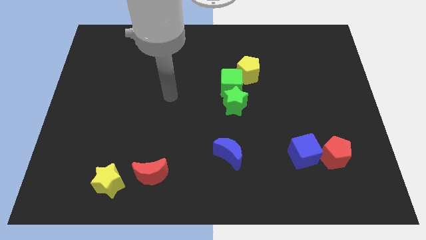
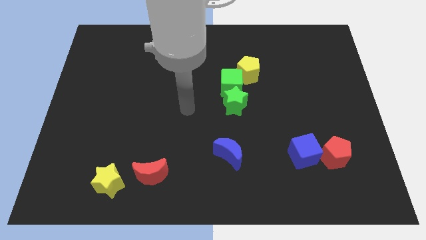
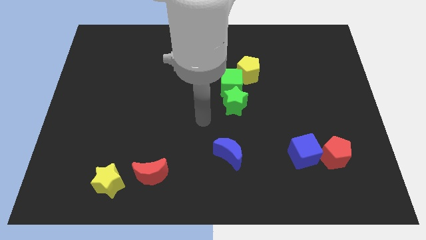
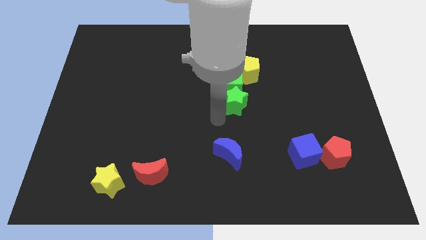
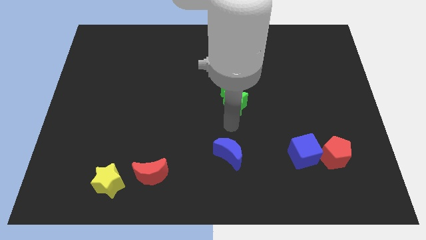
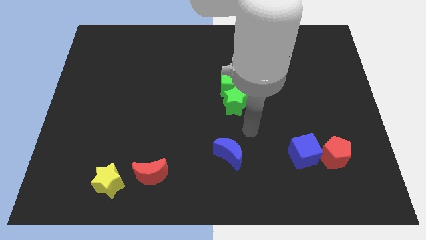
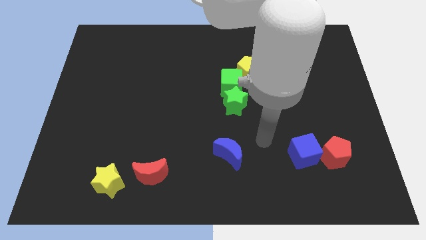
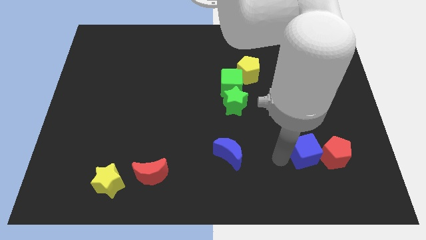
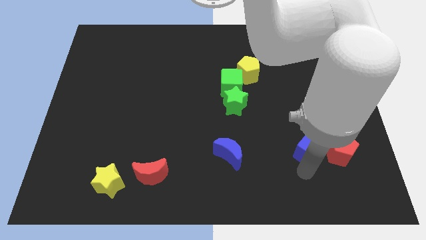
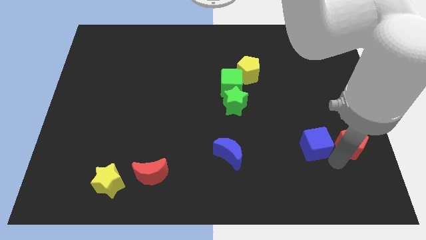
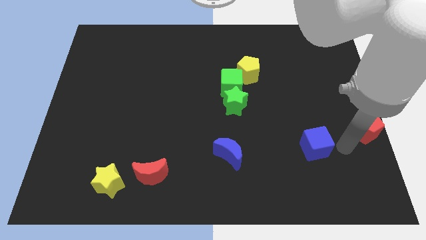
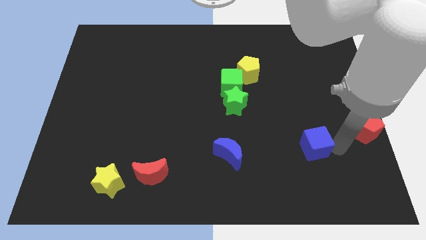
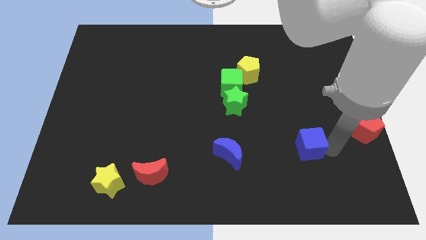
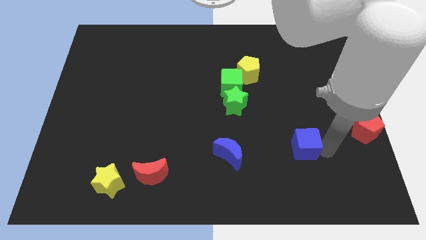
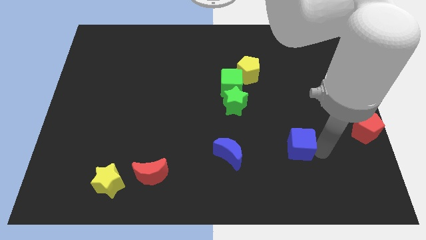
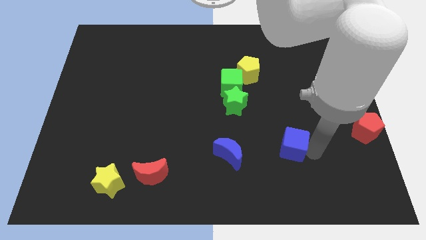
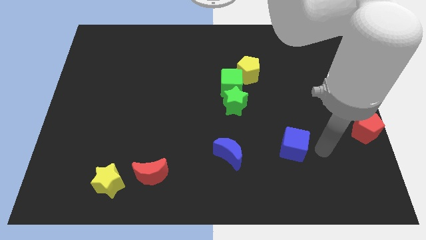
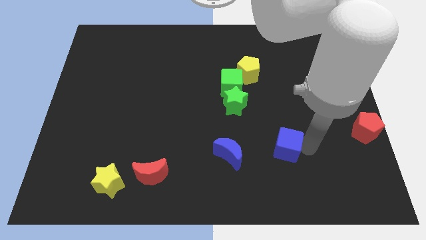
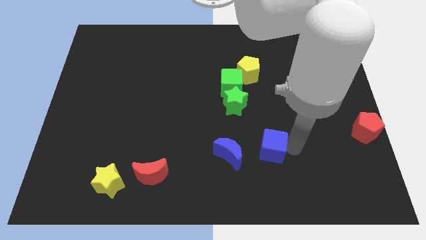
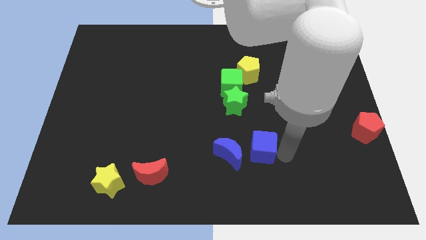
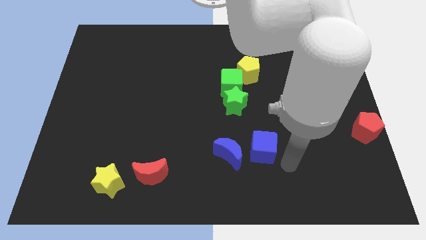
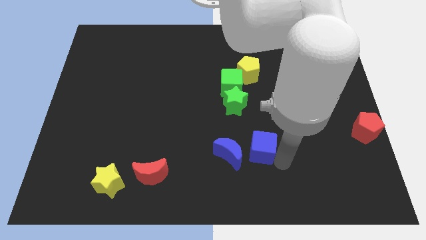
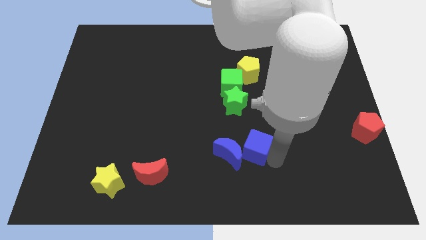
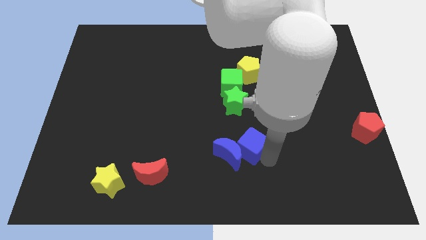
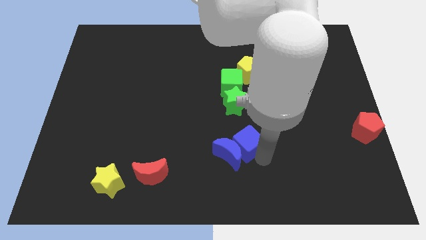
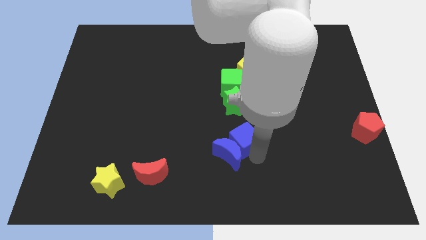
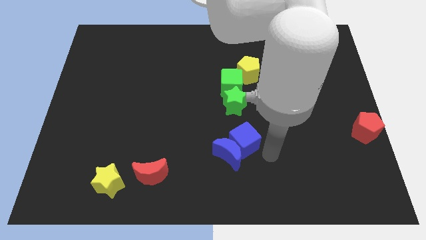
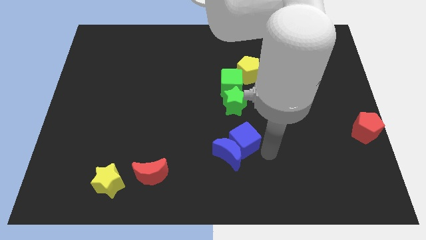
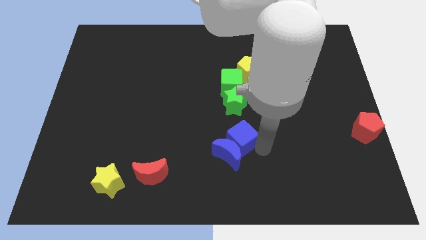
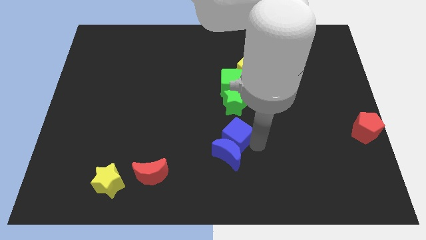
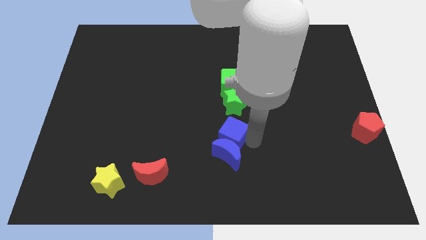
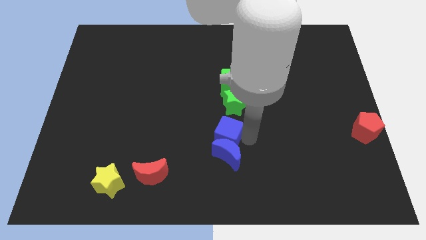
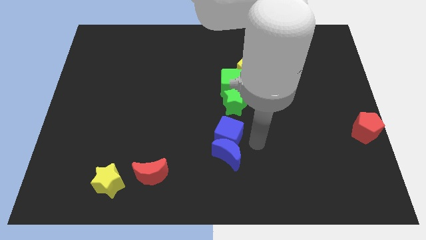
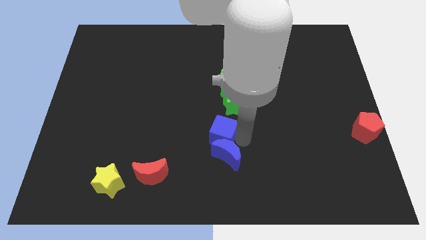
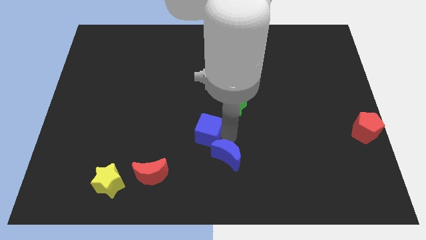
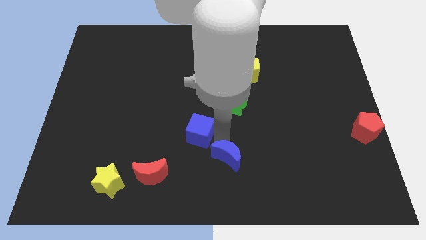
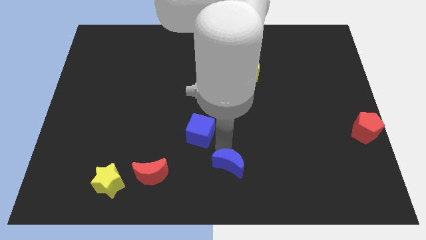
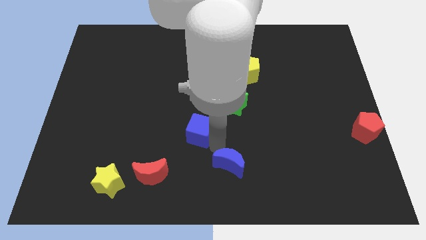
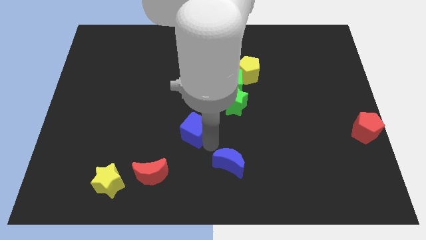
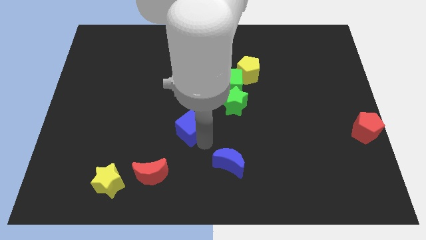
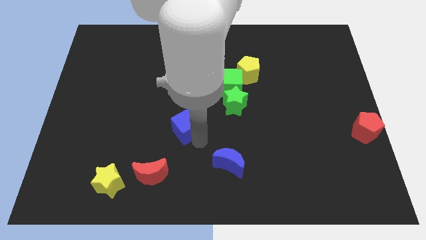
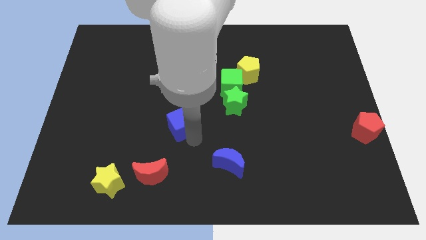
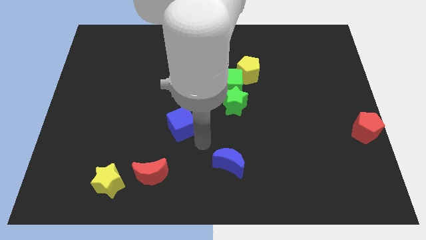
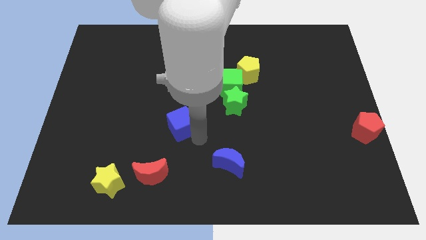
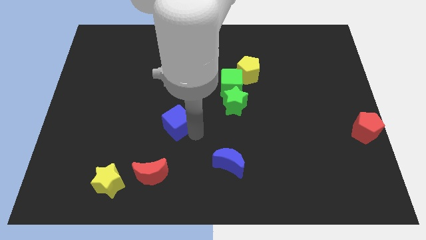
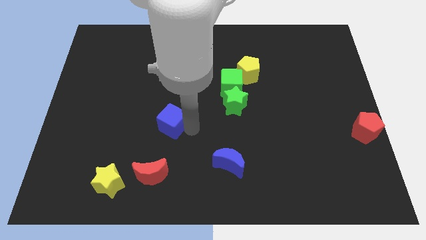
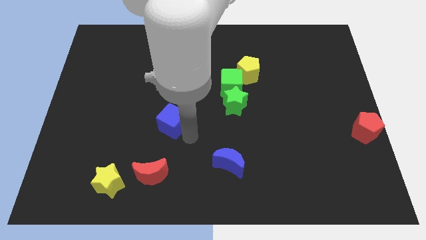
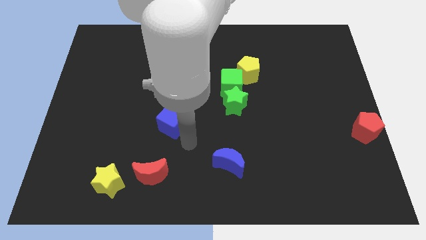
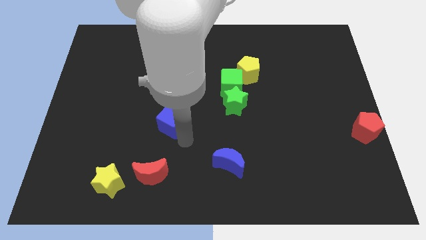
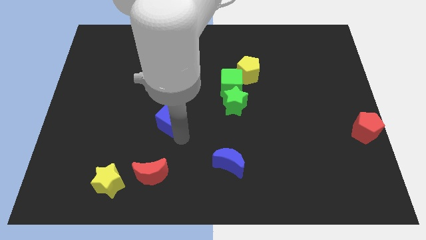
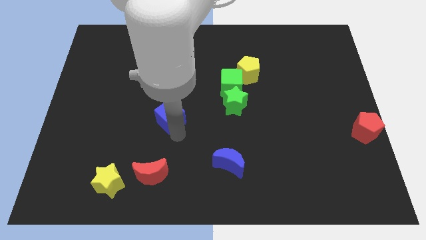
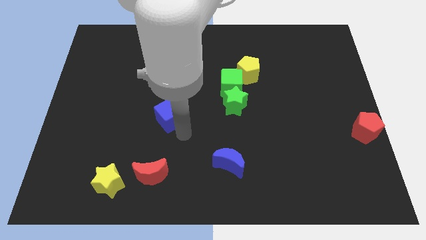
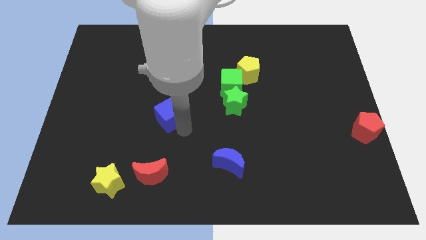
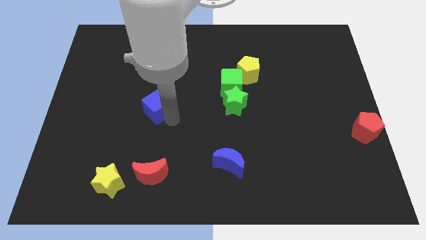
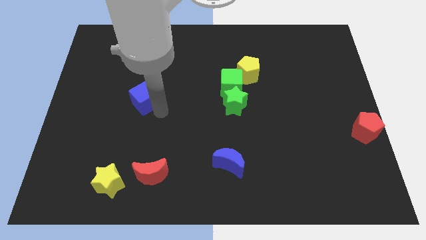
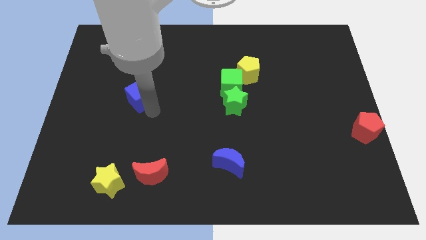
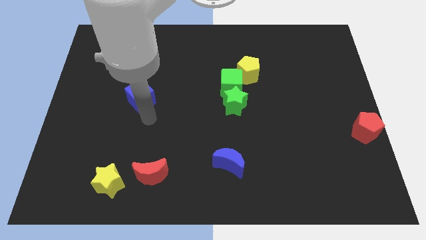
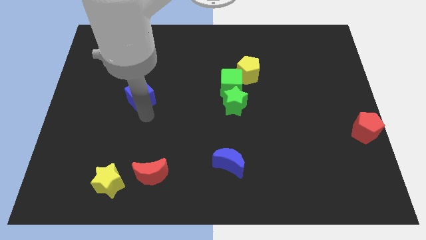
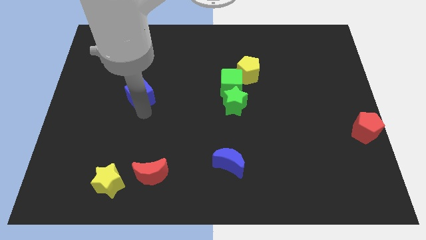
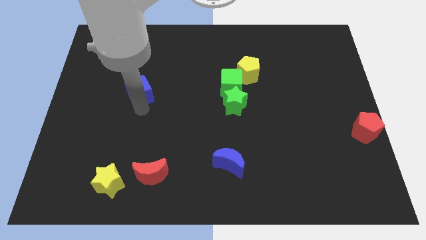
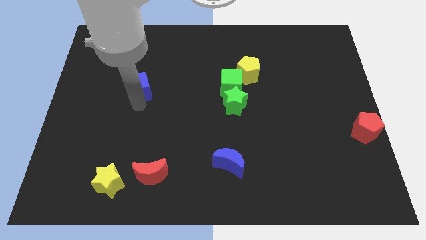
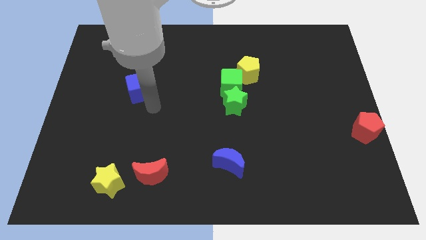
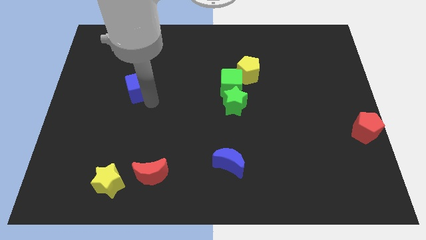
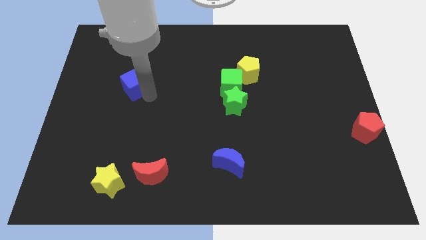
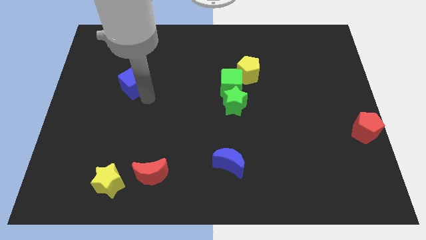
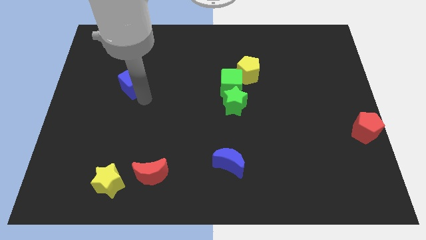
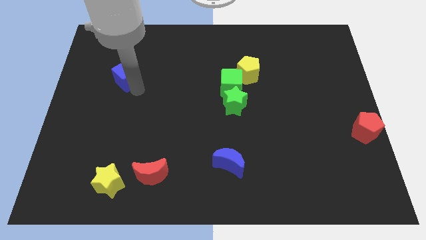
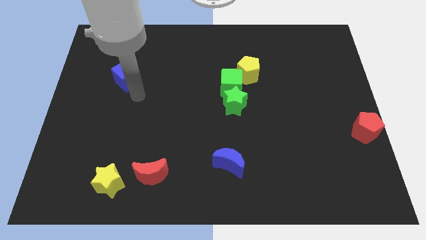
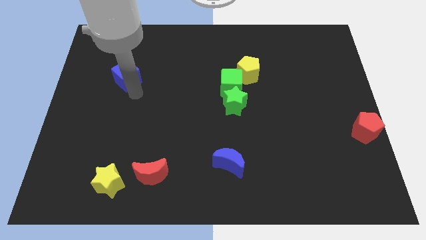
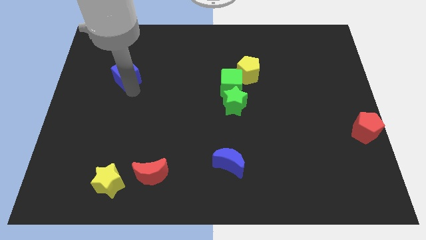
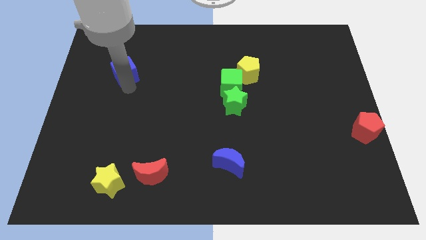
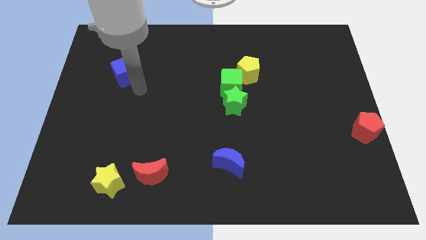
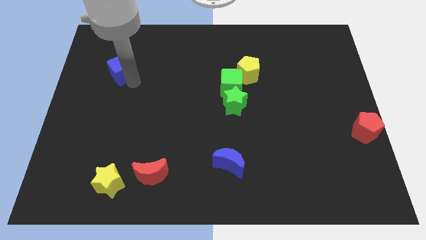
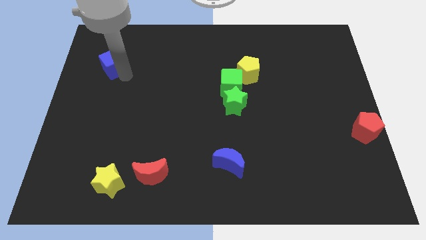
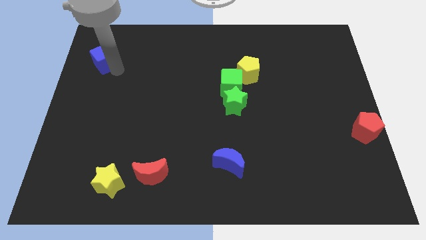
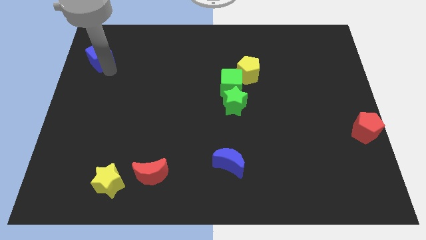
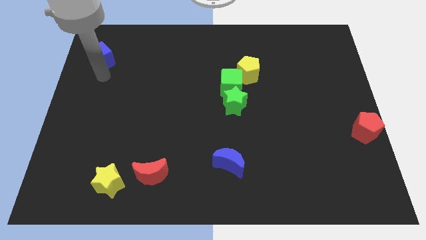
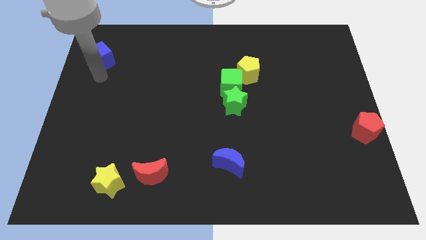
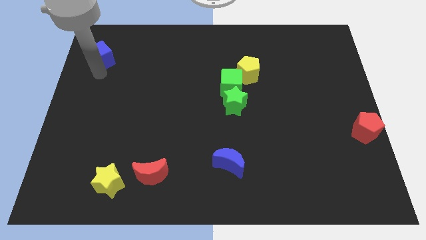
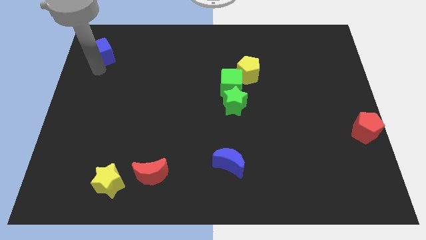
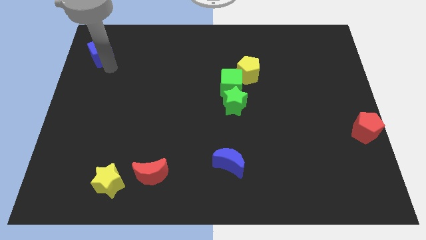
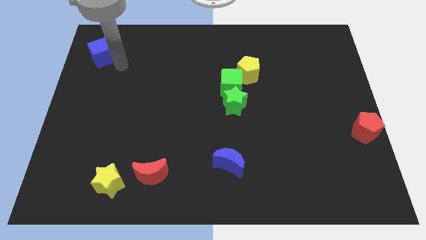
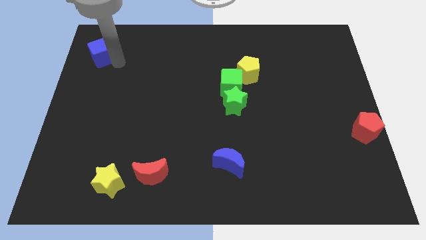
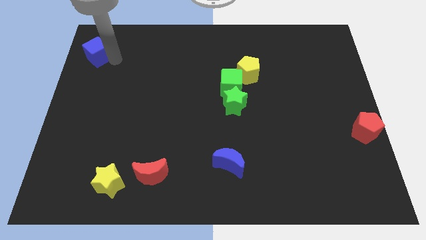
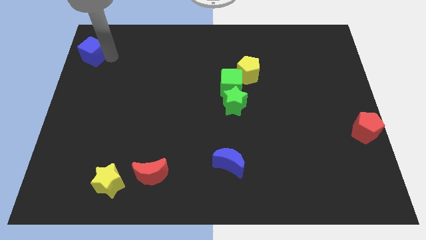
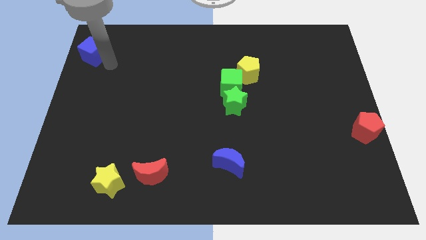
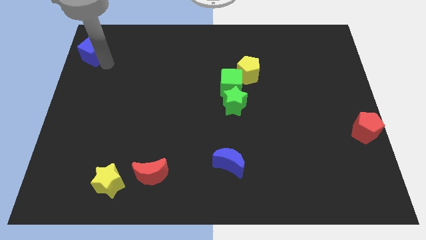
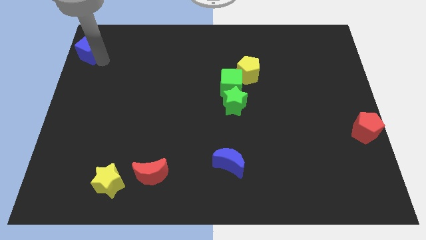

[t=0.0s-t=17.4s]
put the blue cube to the top left of the board
